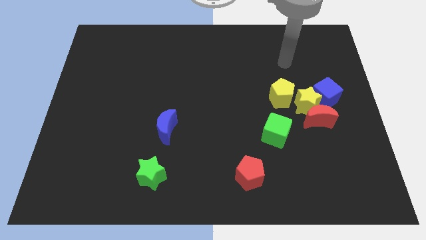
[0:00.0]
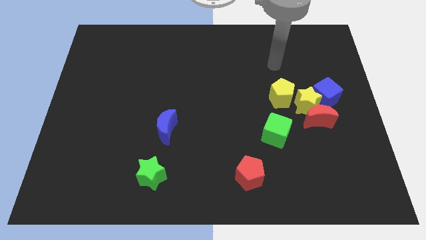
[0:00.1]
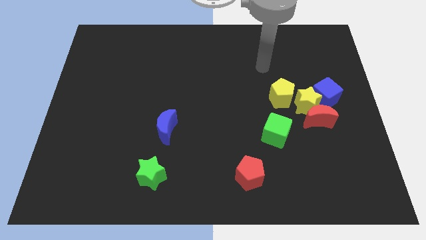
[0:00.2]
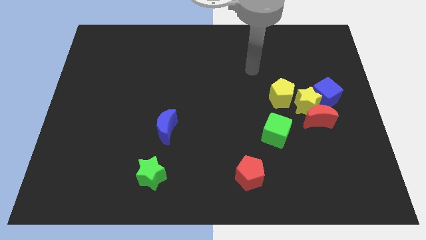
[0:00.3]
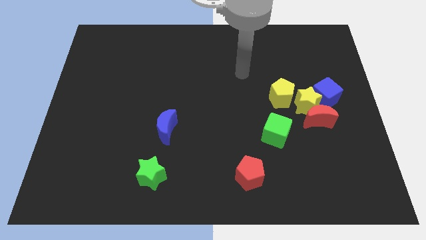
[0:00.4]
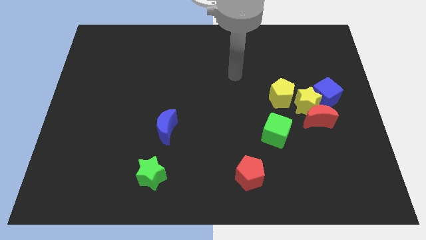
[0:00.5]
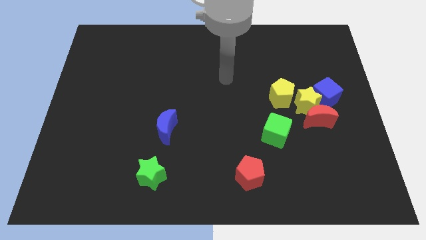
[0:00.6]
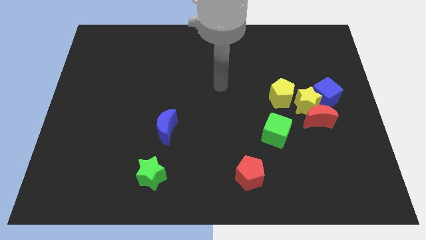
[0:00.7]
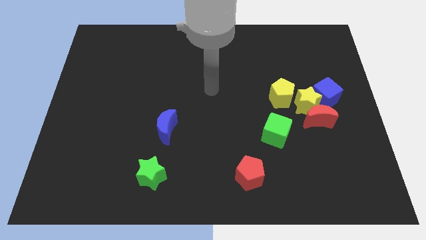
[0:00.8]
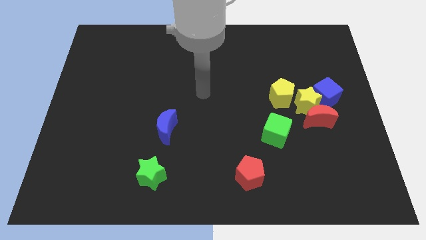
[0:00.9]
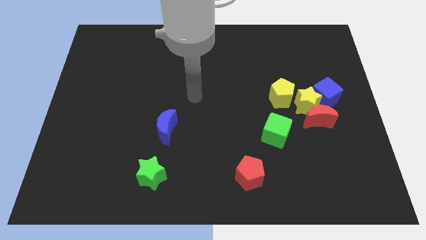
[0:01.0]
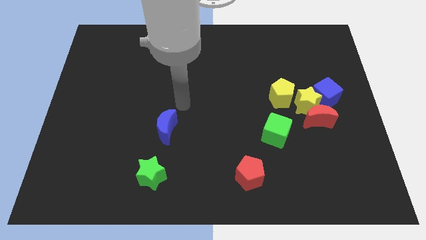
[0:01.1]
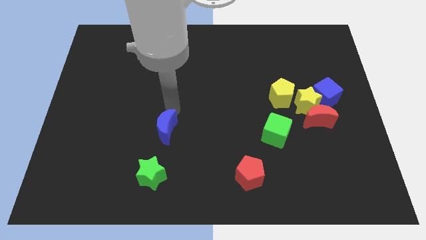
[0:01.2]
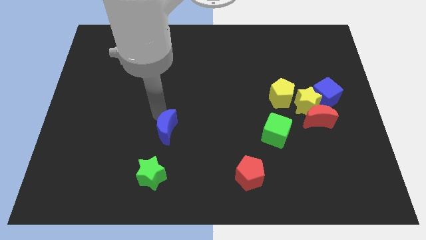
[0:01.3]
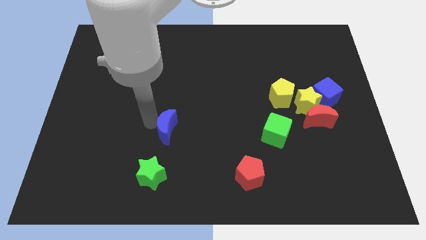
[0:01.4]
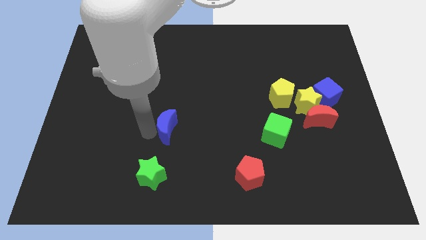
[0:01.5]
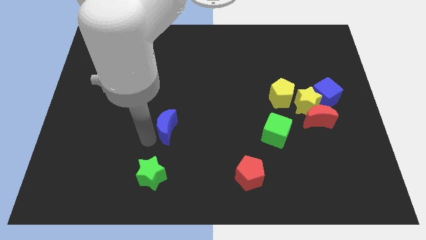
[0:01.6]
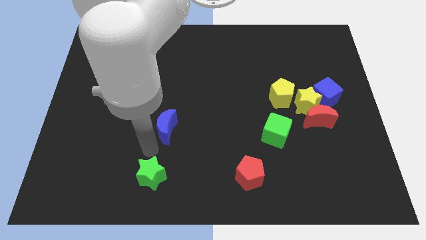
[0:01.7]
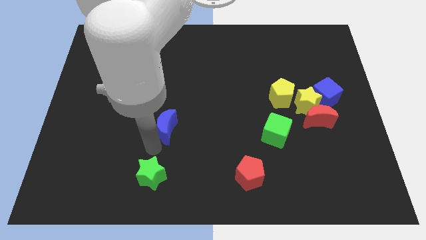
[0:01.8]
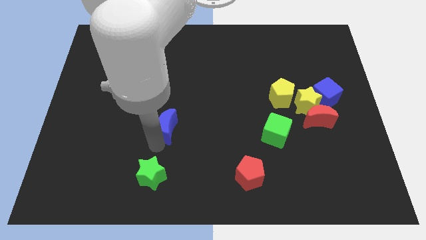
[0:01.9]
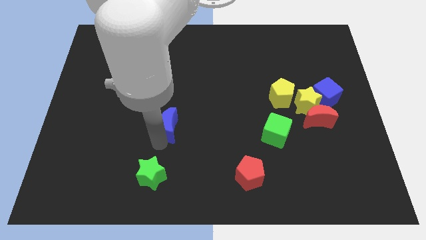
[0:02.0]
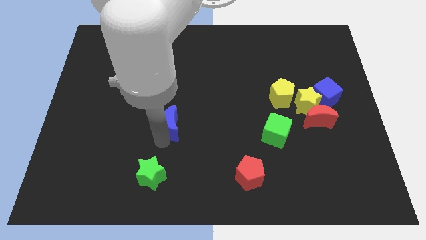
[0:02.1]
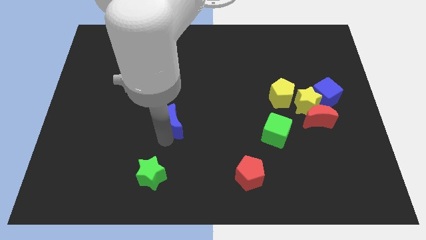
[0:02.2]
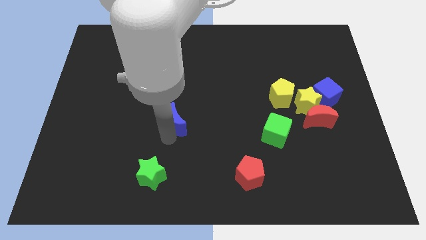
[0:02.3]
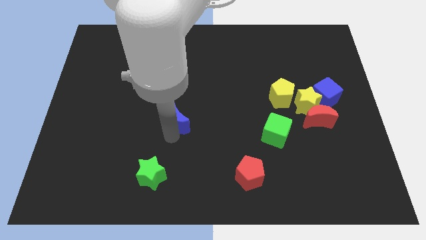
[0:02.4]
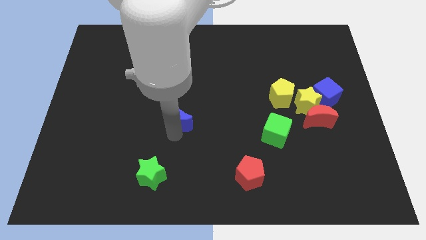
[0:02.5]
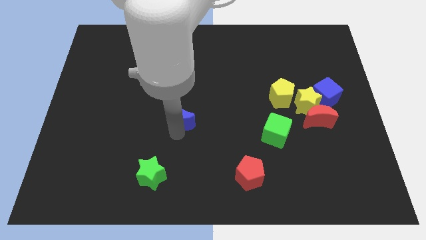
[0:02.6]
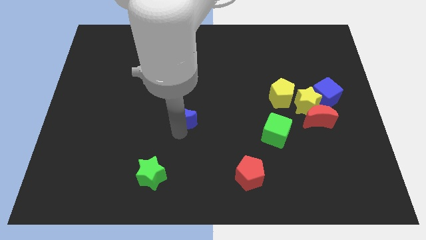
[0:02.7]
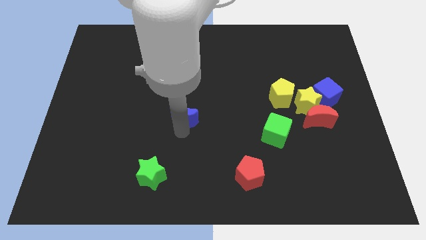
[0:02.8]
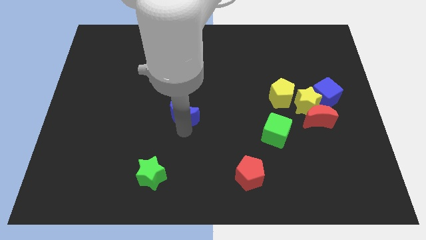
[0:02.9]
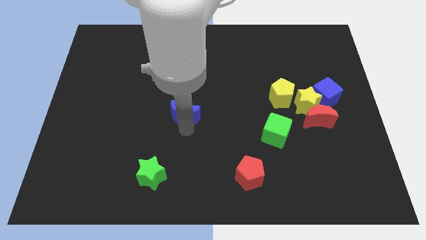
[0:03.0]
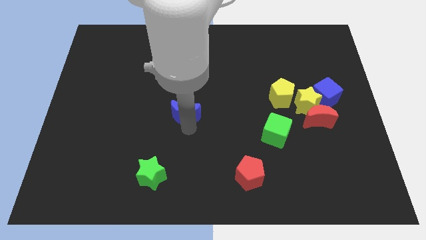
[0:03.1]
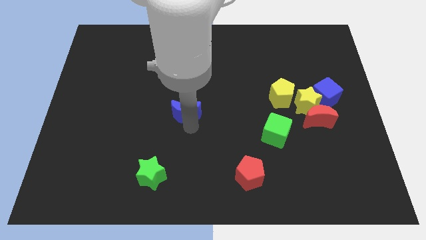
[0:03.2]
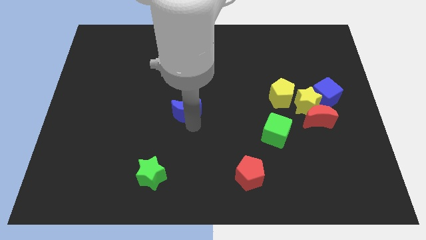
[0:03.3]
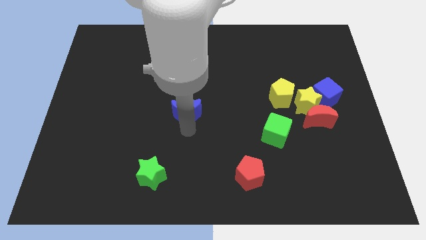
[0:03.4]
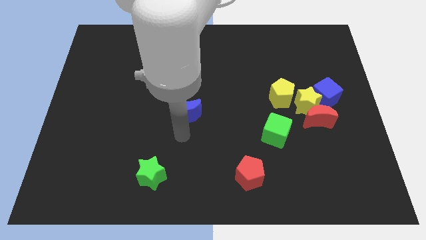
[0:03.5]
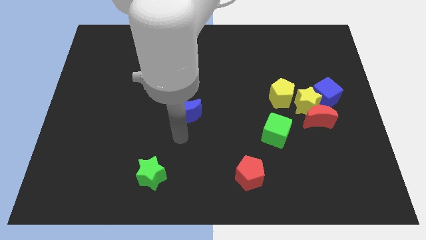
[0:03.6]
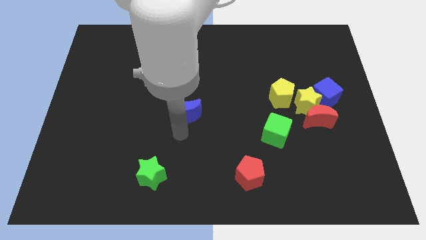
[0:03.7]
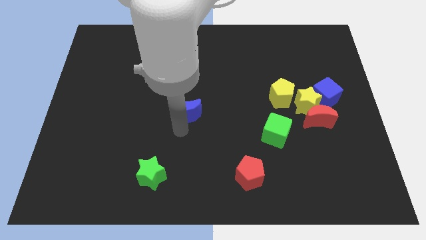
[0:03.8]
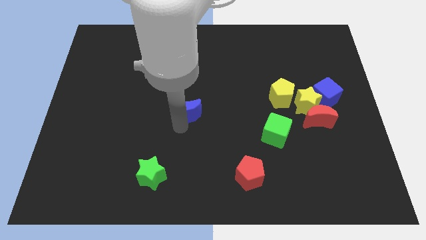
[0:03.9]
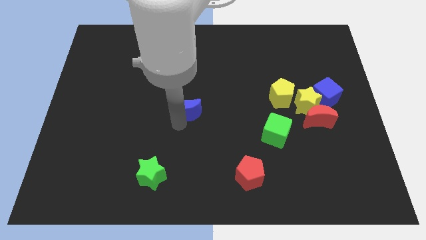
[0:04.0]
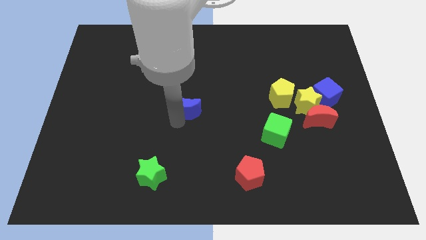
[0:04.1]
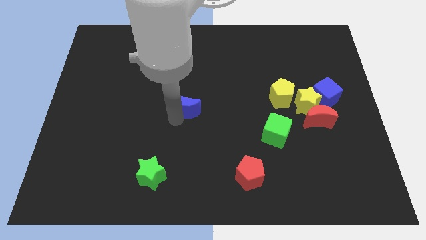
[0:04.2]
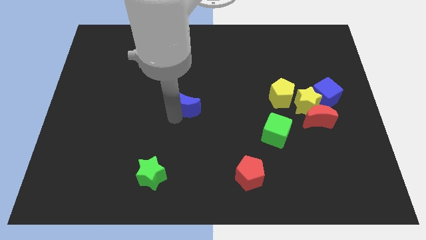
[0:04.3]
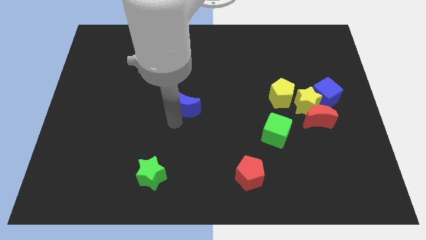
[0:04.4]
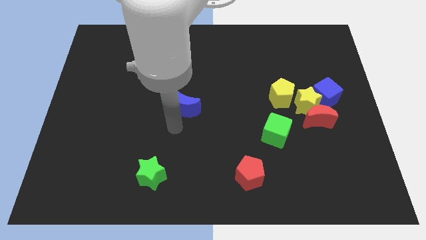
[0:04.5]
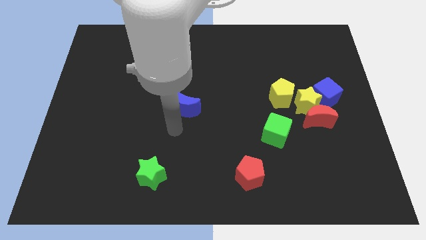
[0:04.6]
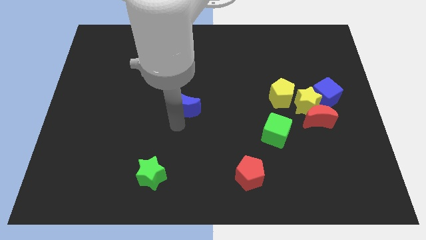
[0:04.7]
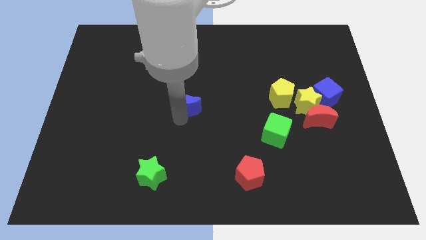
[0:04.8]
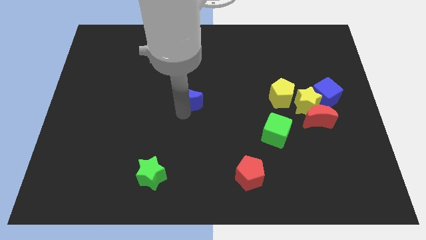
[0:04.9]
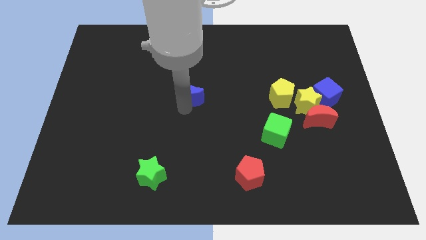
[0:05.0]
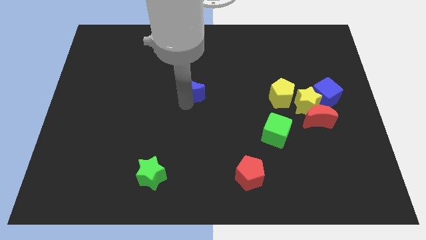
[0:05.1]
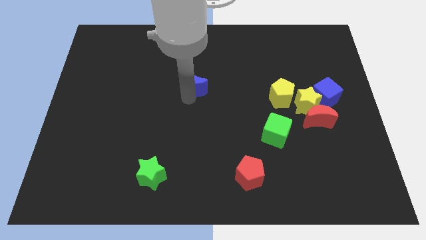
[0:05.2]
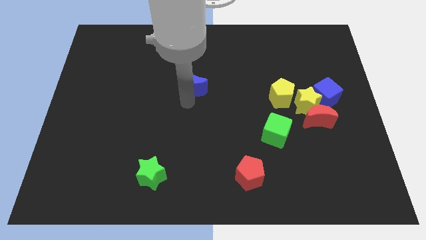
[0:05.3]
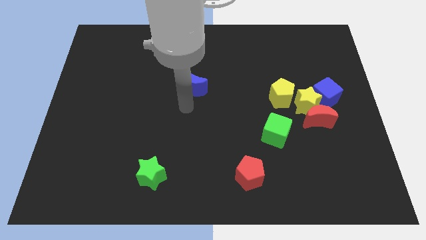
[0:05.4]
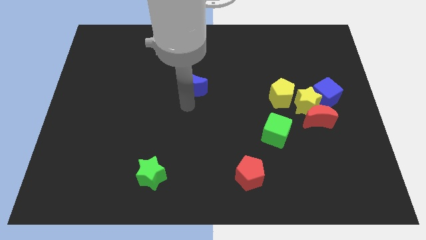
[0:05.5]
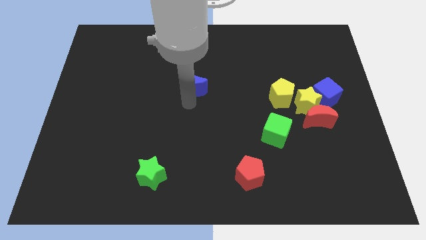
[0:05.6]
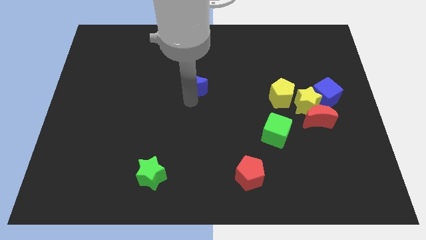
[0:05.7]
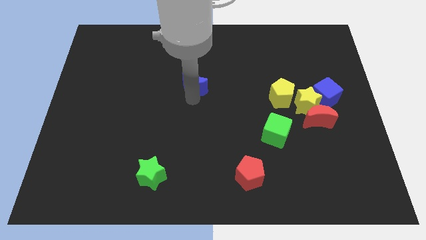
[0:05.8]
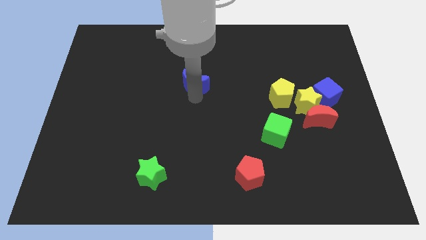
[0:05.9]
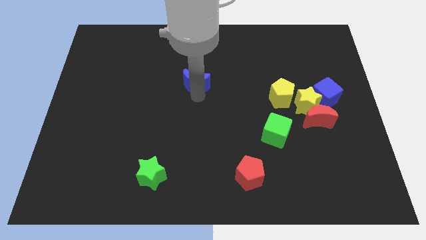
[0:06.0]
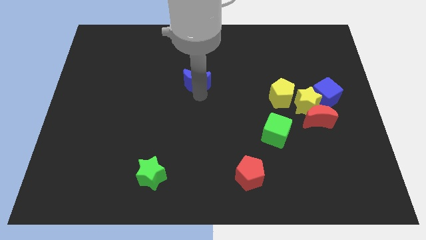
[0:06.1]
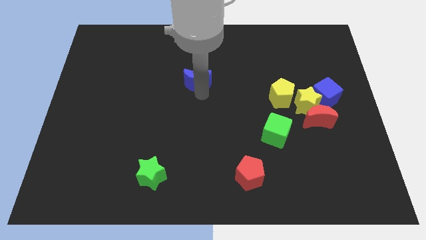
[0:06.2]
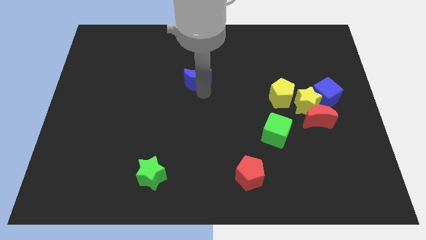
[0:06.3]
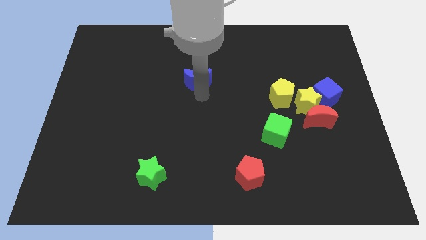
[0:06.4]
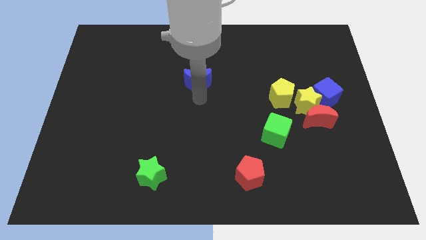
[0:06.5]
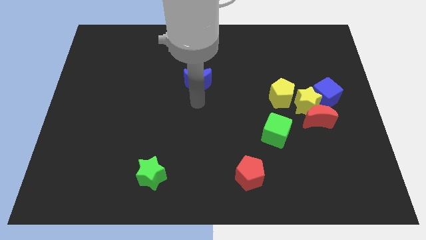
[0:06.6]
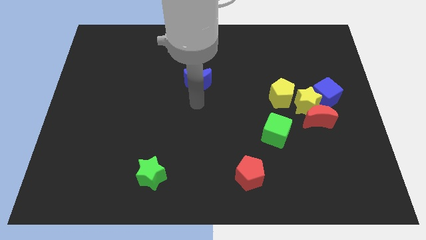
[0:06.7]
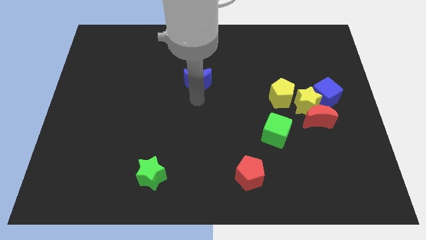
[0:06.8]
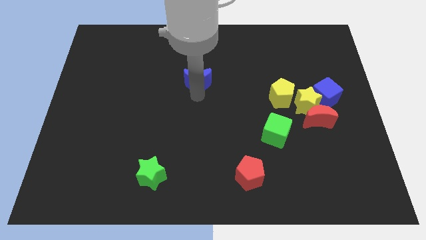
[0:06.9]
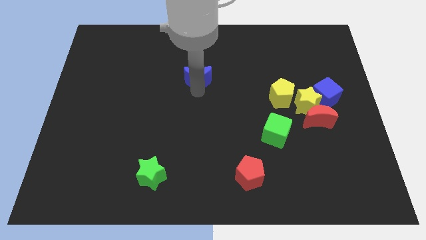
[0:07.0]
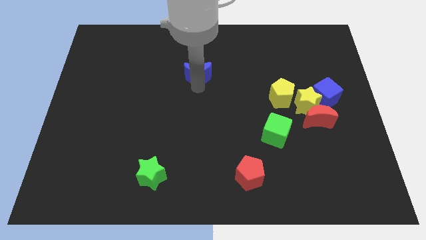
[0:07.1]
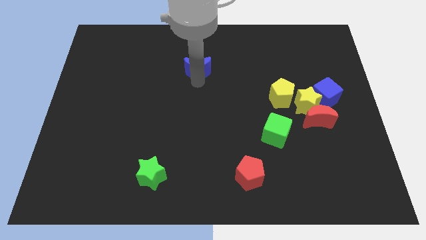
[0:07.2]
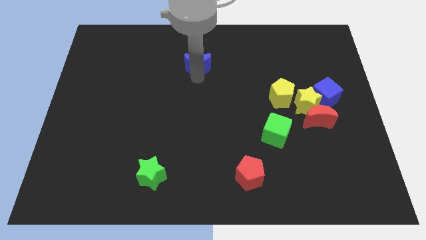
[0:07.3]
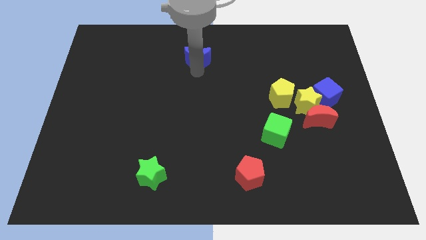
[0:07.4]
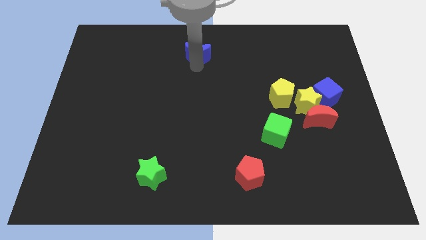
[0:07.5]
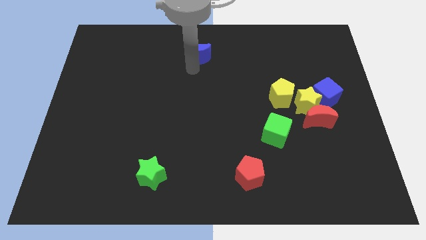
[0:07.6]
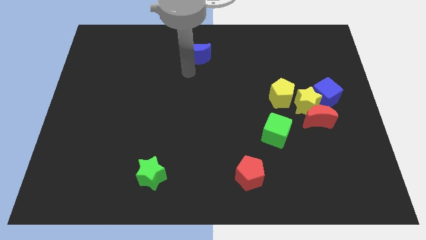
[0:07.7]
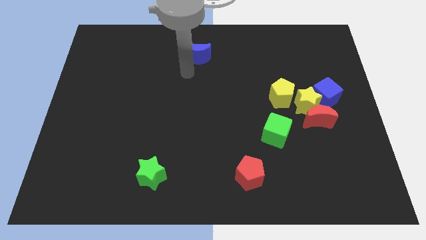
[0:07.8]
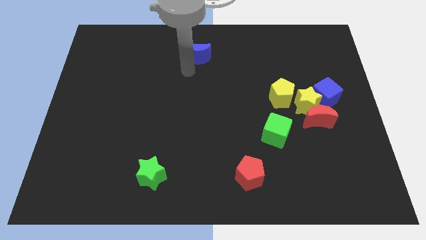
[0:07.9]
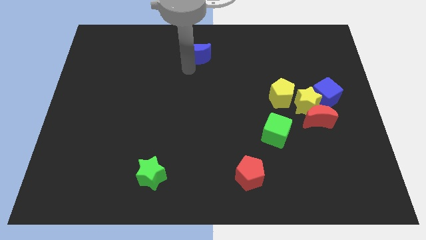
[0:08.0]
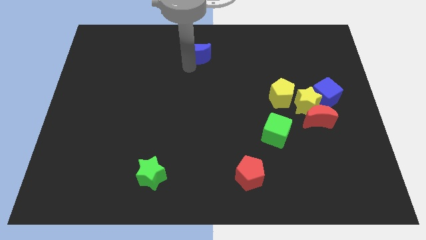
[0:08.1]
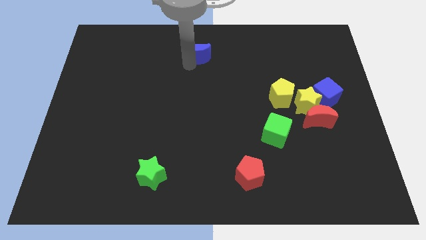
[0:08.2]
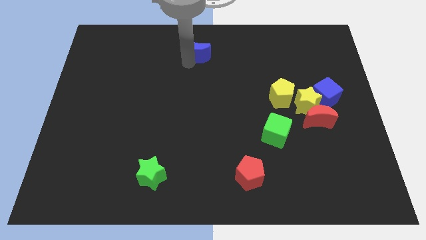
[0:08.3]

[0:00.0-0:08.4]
slide the blue moon to the top
